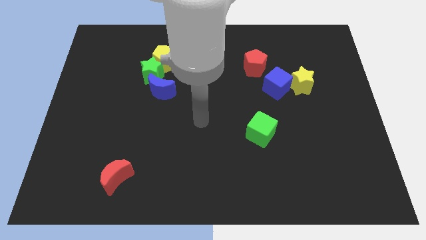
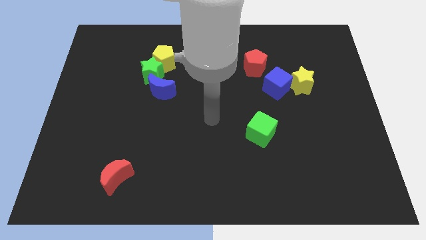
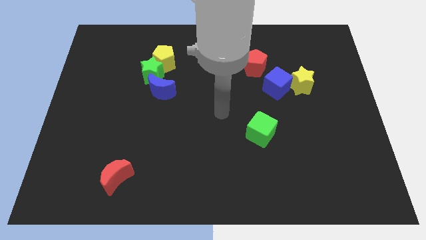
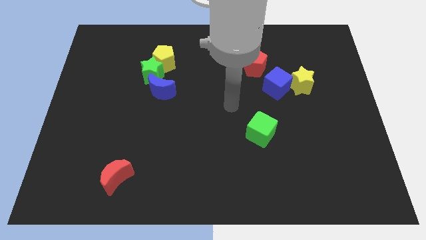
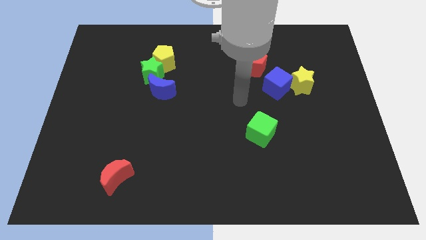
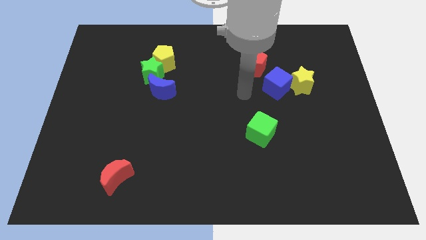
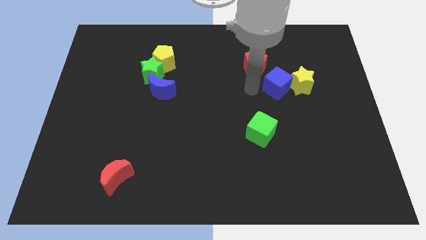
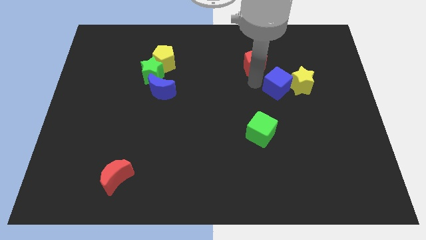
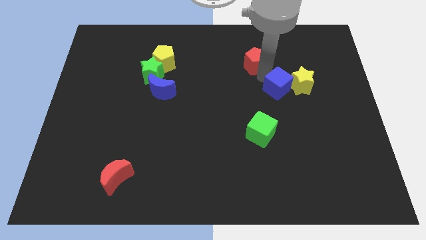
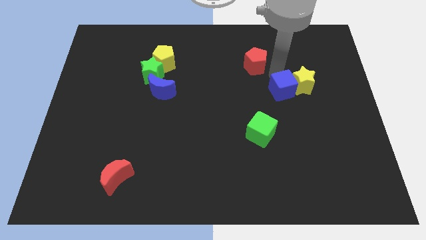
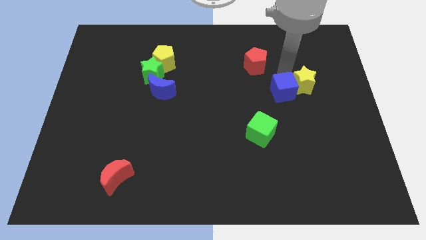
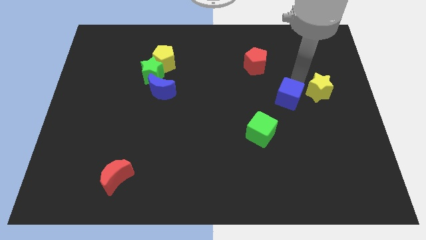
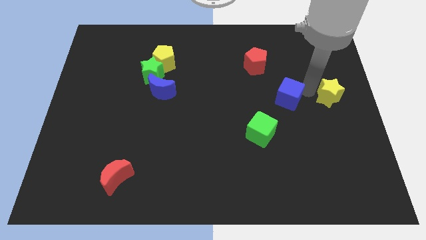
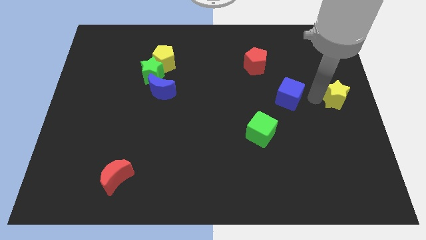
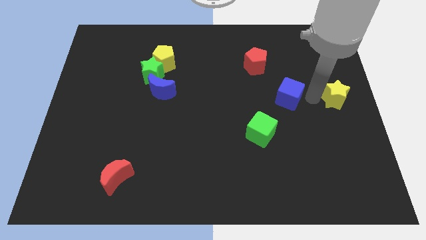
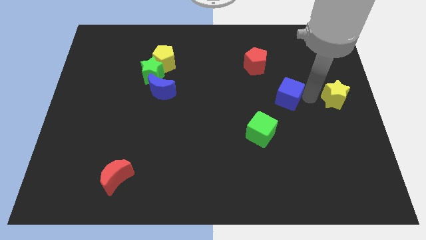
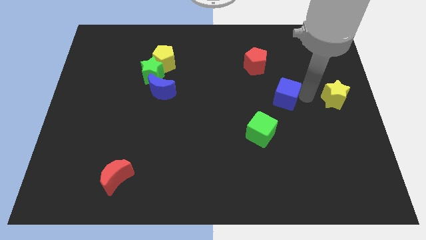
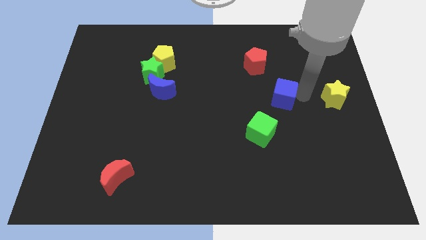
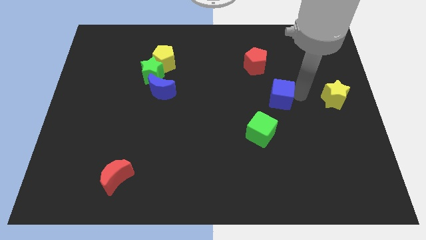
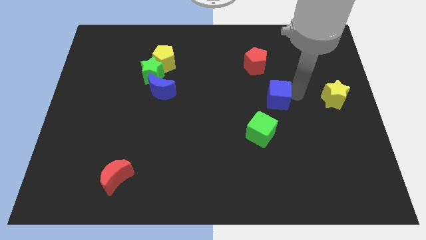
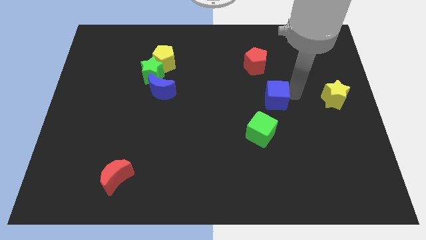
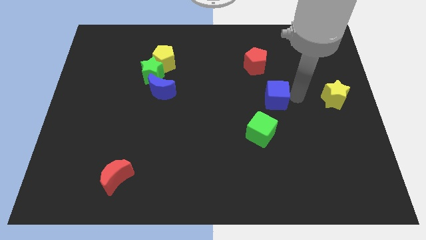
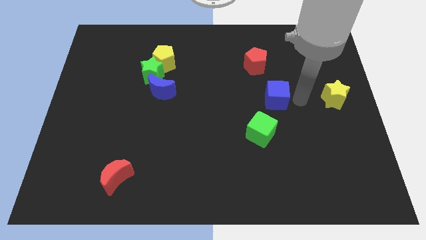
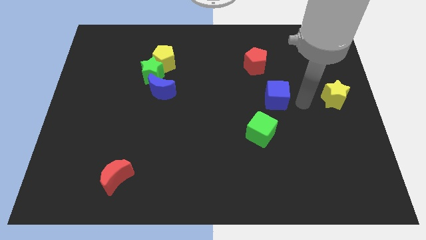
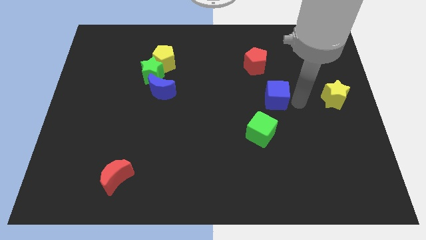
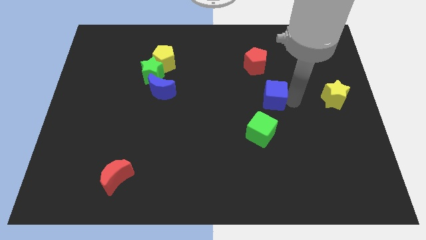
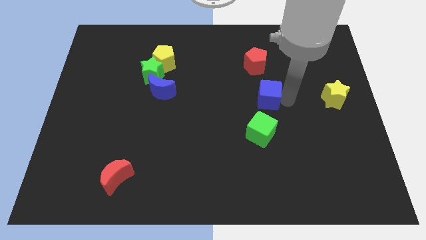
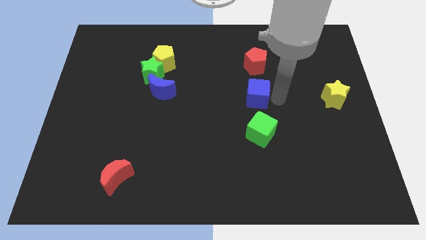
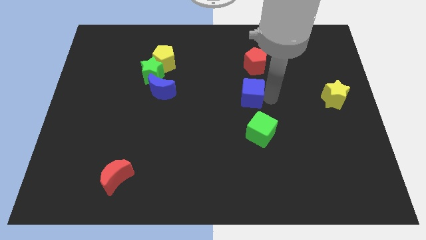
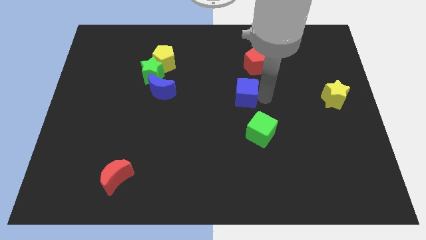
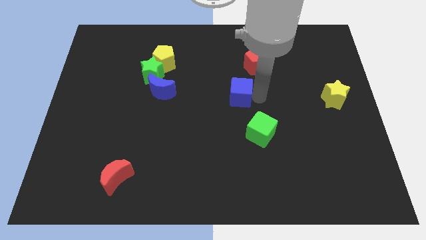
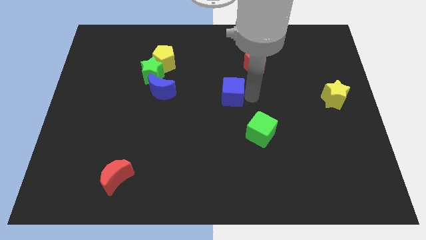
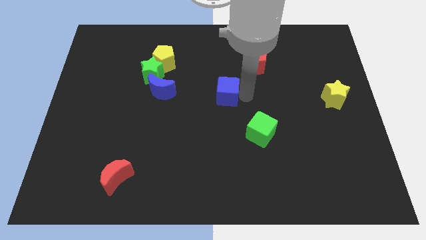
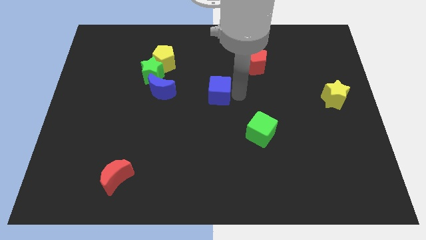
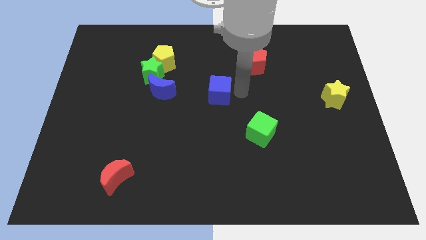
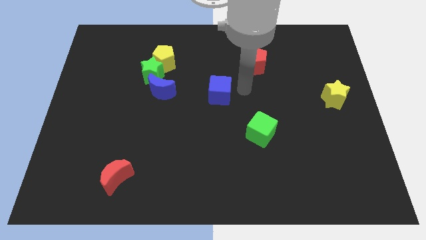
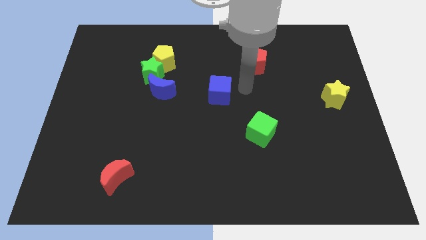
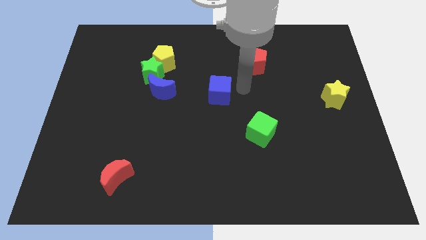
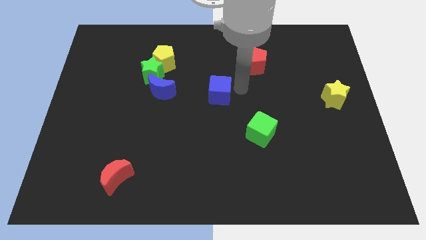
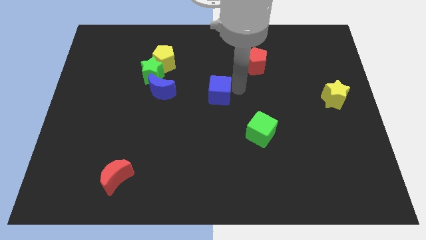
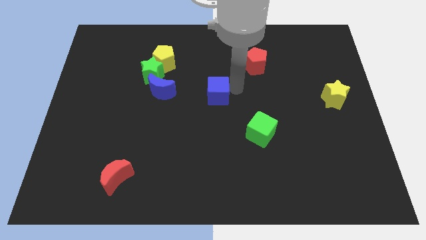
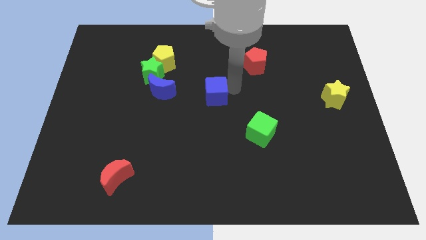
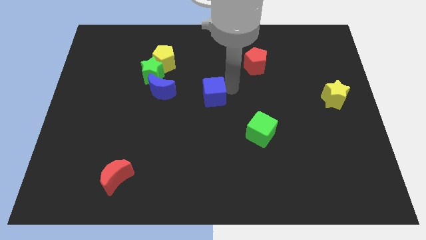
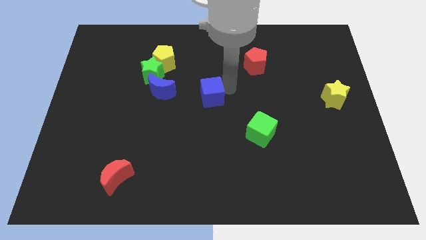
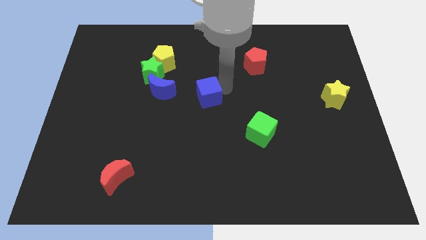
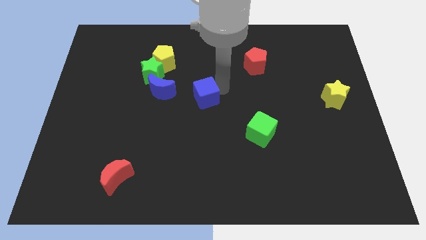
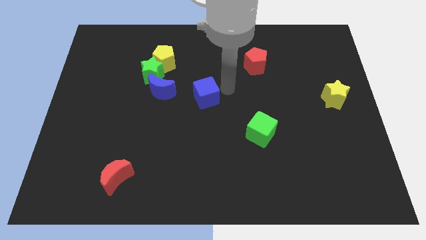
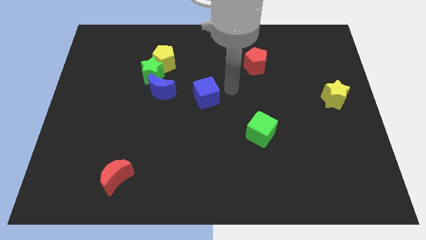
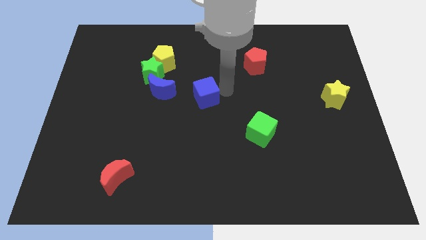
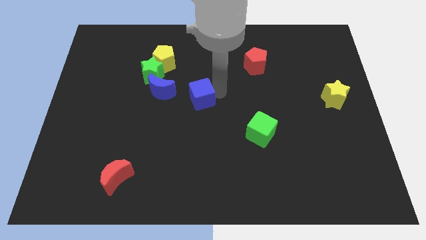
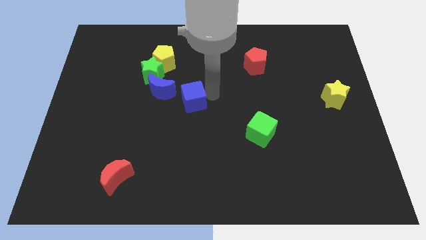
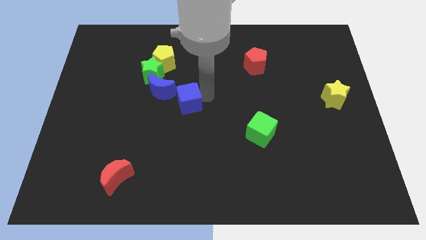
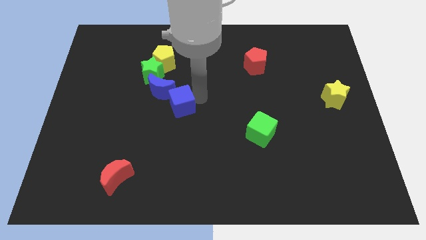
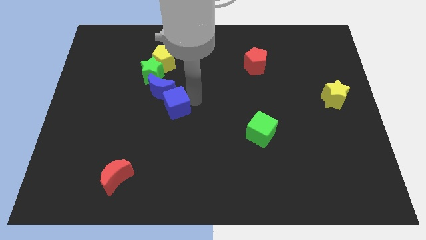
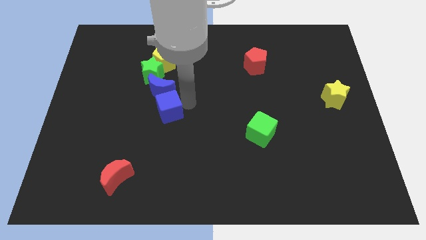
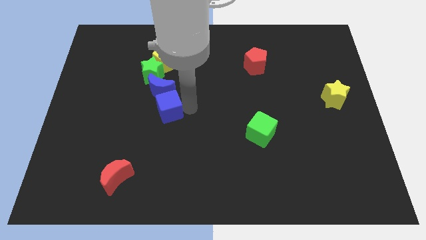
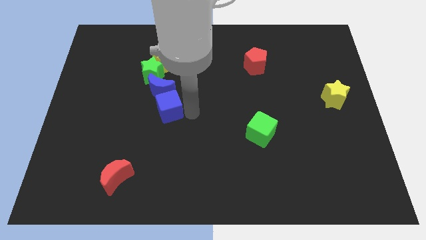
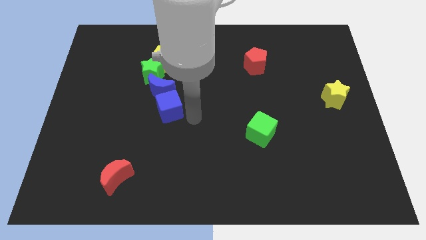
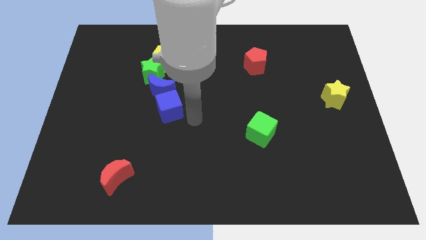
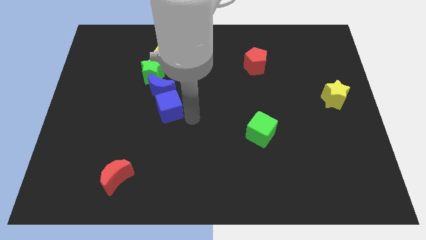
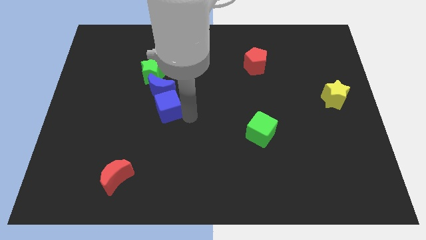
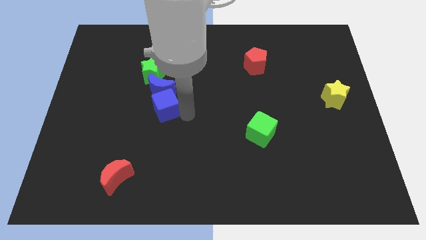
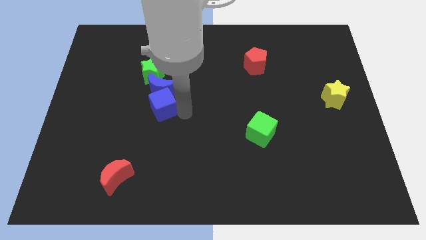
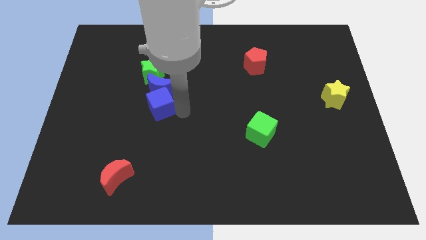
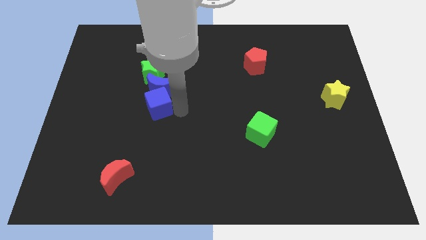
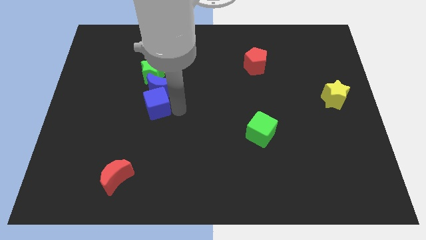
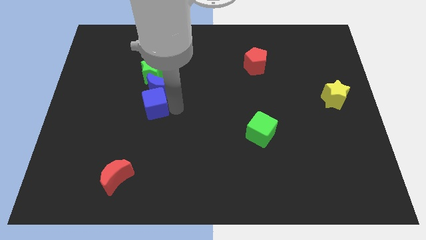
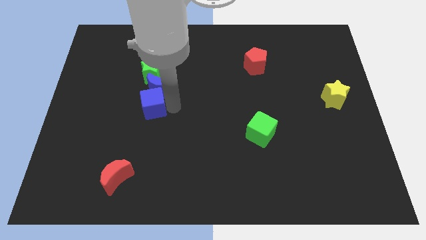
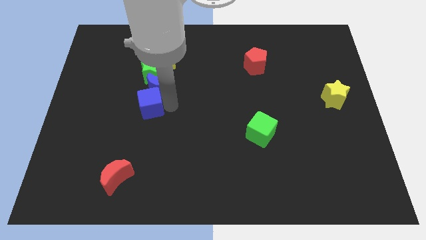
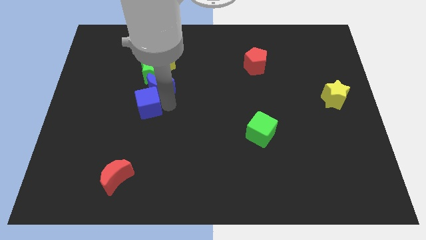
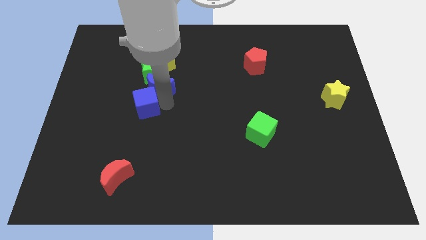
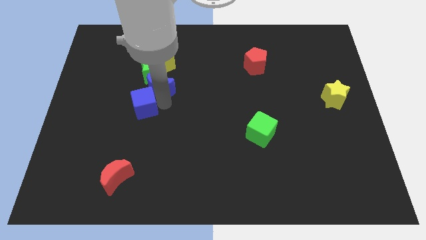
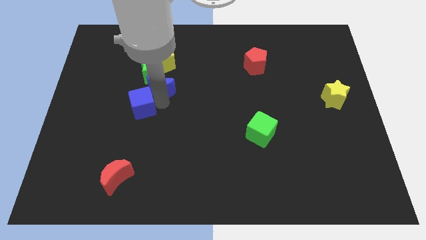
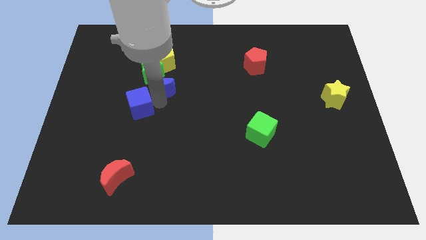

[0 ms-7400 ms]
put the blue cube just left of the blue moon

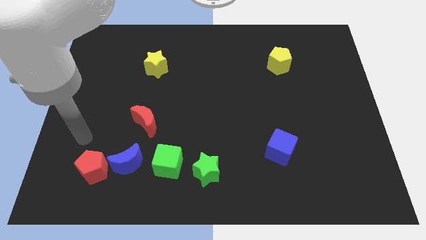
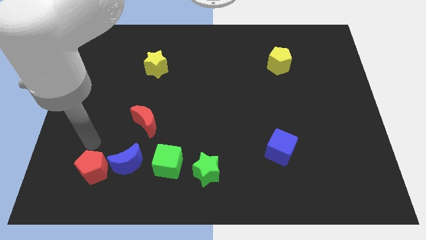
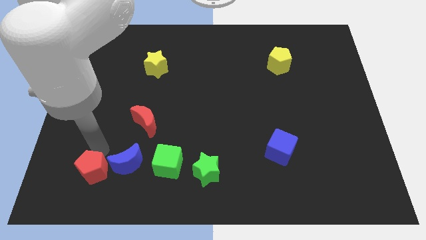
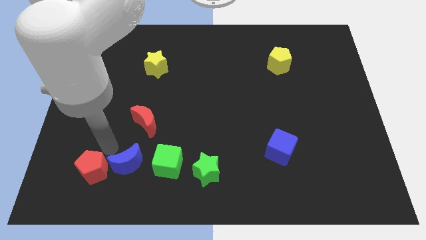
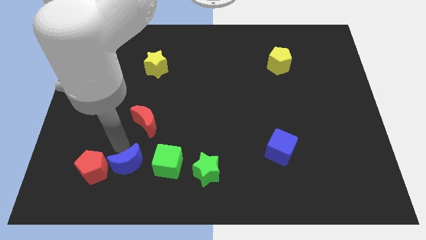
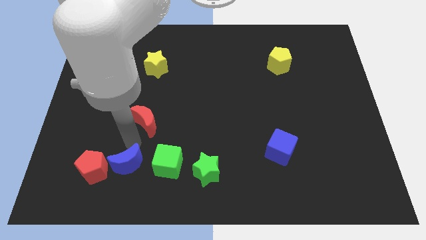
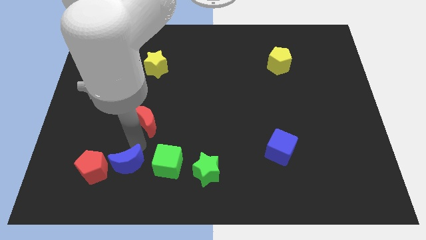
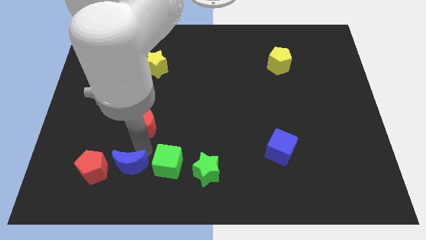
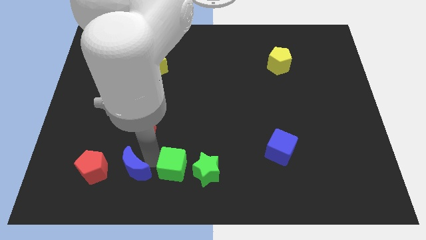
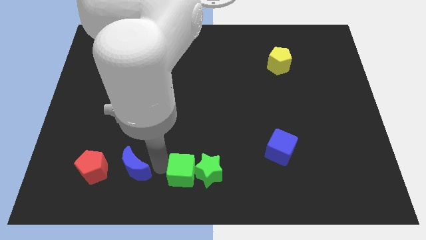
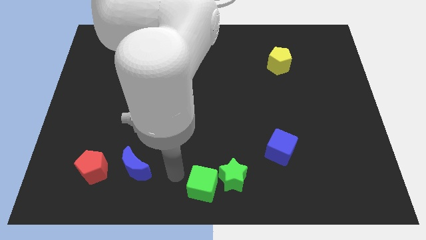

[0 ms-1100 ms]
move the green star to the bottom left side of the blue cube
